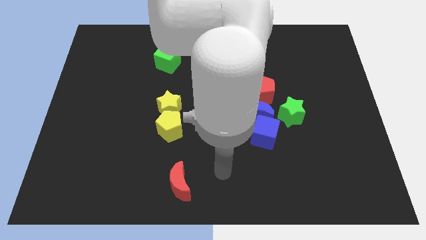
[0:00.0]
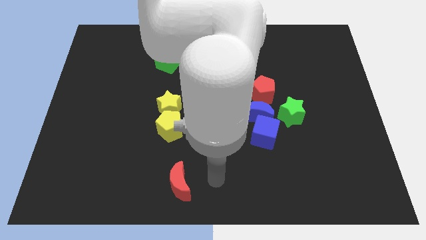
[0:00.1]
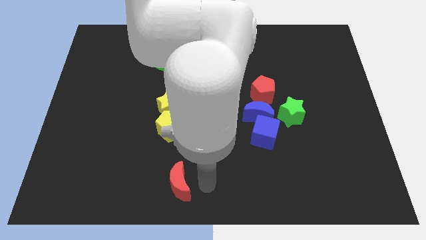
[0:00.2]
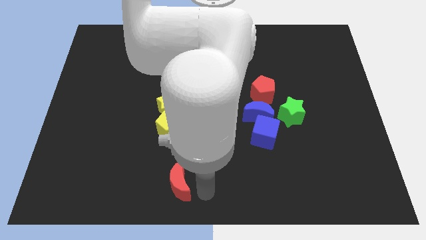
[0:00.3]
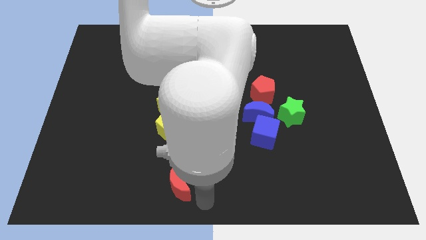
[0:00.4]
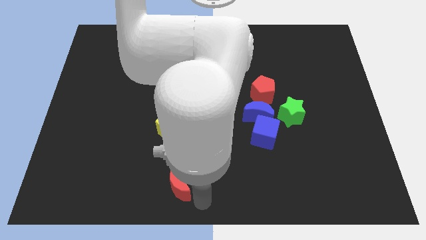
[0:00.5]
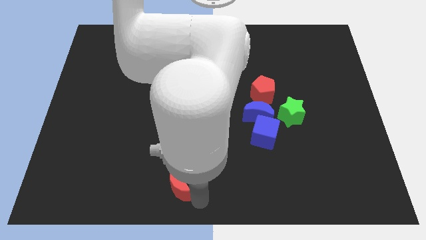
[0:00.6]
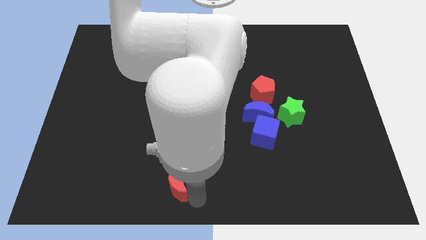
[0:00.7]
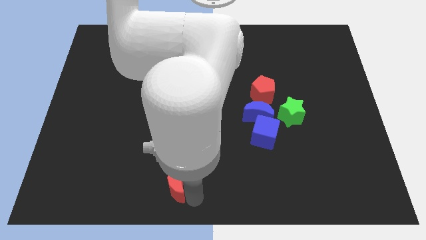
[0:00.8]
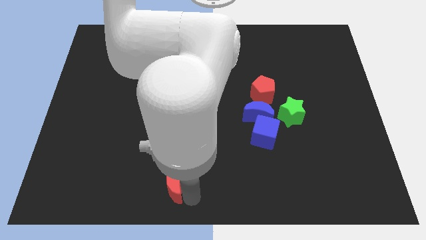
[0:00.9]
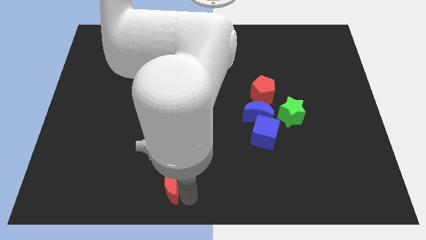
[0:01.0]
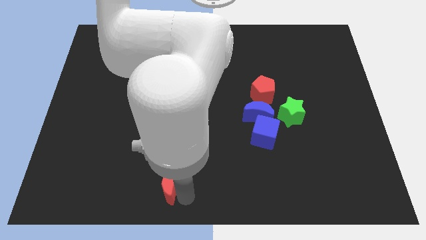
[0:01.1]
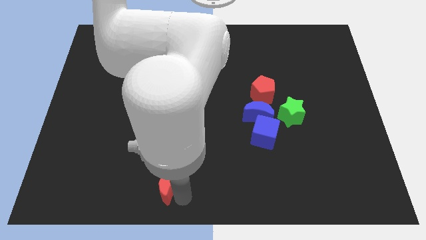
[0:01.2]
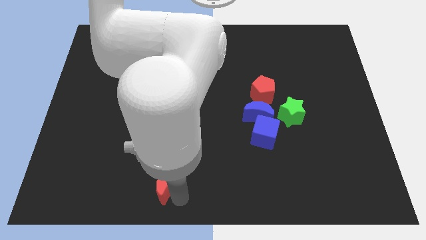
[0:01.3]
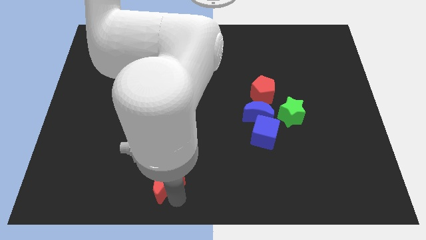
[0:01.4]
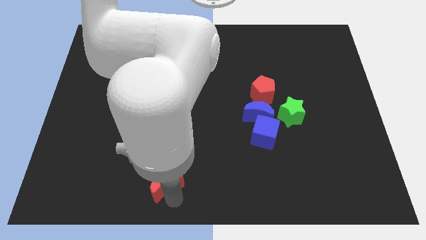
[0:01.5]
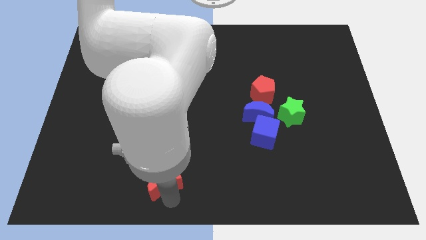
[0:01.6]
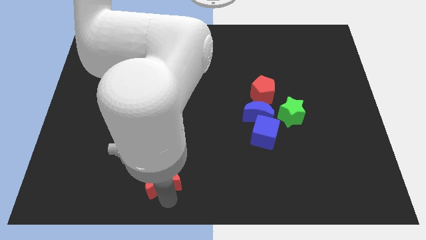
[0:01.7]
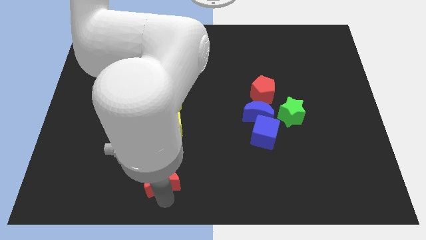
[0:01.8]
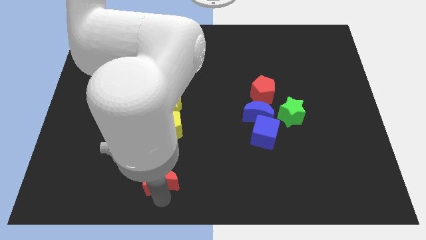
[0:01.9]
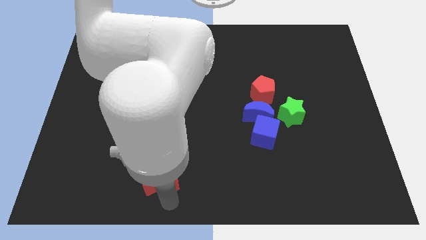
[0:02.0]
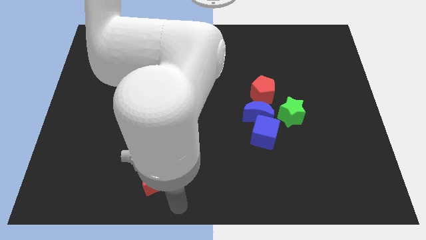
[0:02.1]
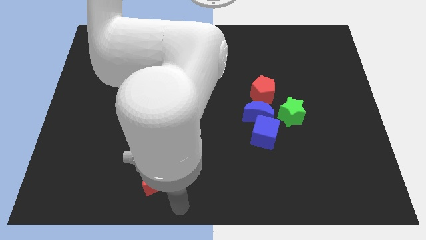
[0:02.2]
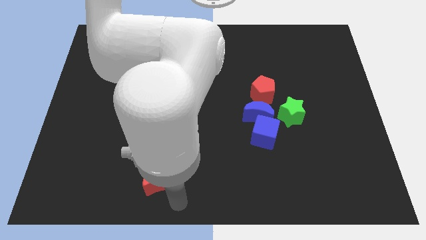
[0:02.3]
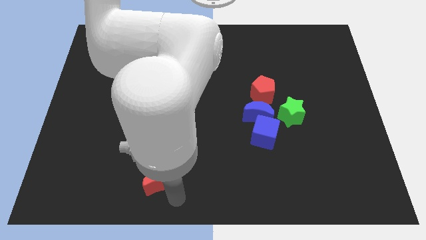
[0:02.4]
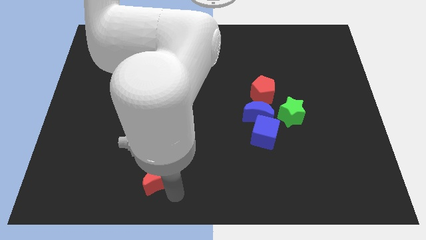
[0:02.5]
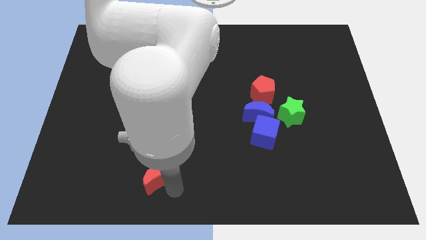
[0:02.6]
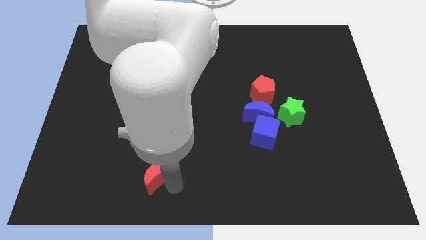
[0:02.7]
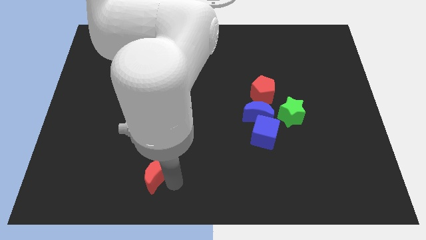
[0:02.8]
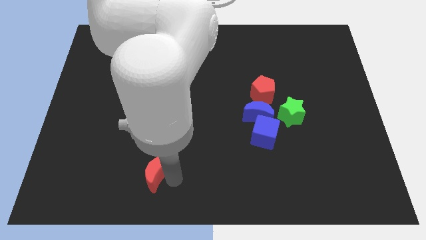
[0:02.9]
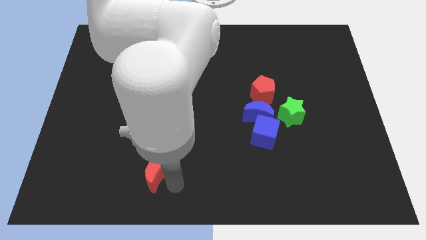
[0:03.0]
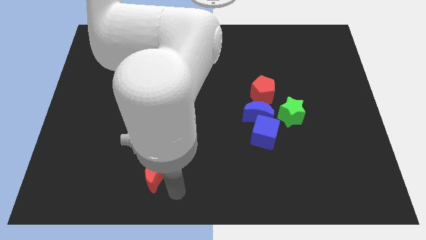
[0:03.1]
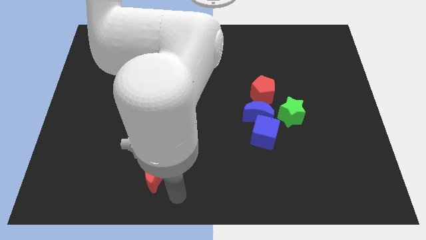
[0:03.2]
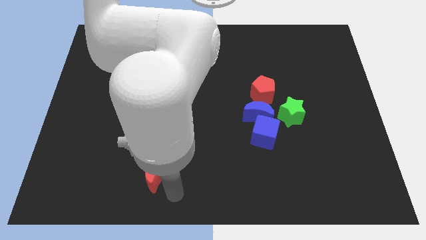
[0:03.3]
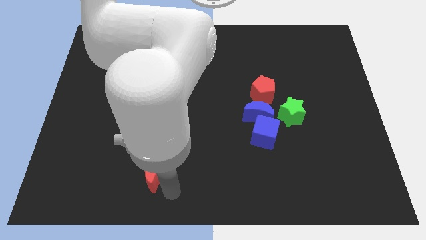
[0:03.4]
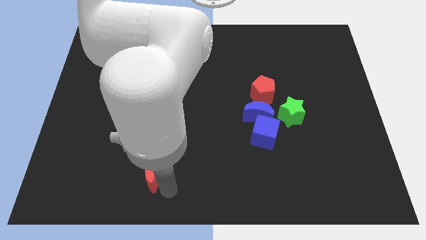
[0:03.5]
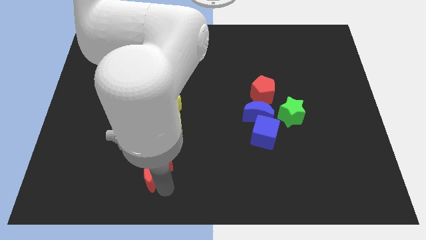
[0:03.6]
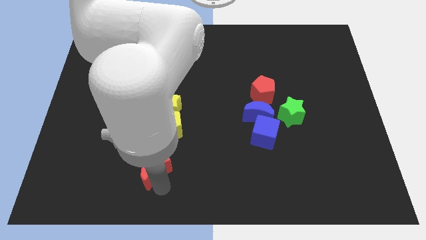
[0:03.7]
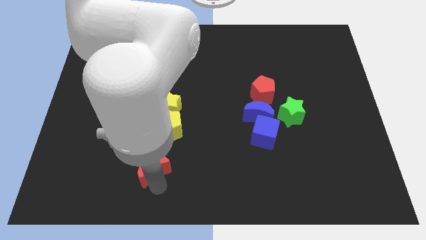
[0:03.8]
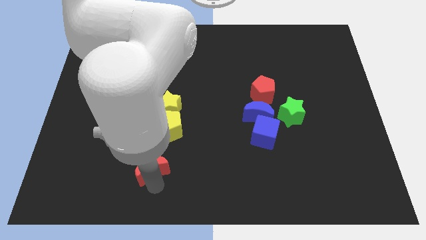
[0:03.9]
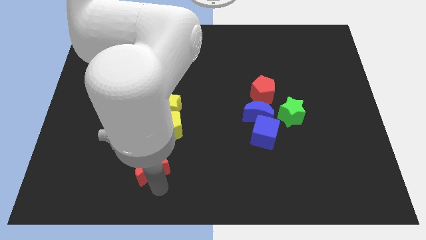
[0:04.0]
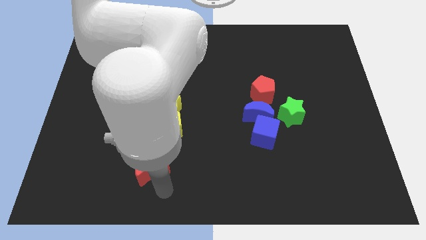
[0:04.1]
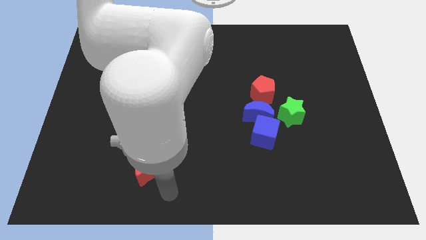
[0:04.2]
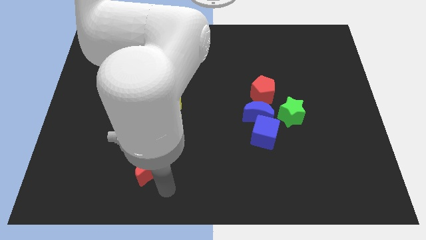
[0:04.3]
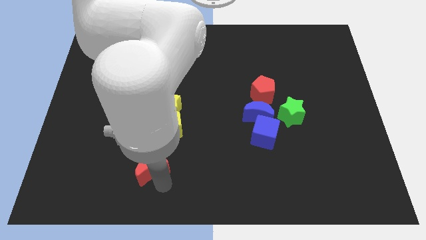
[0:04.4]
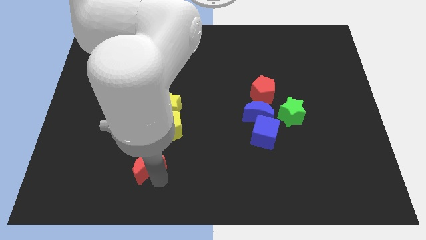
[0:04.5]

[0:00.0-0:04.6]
move the red moon diagonally upwards and left somewhat

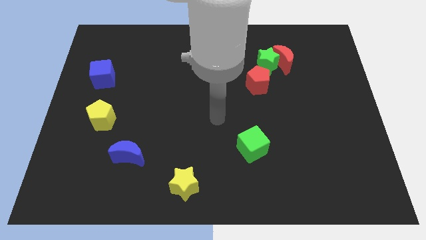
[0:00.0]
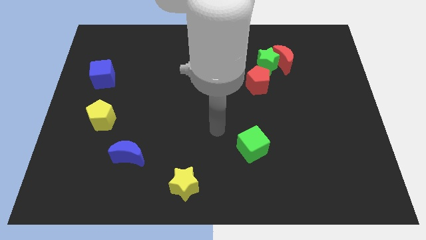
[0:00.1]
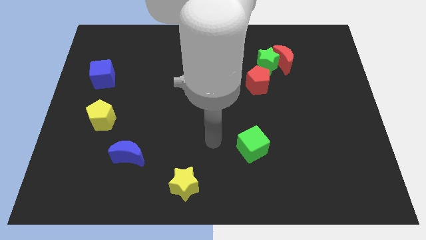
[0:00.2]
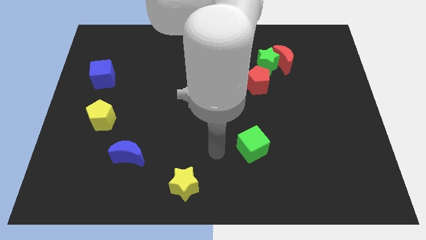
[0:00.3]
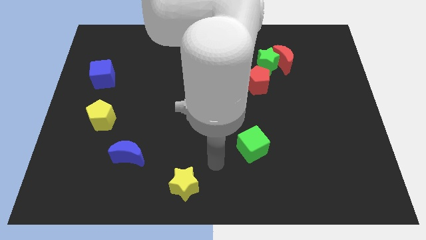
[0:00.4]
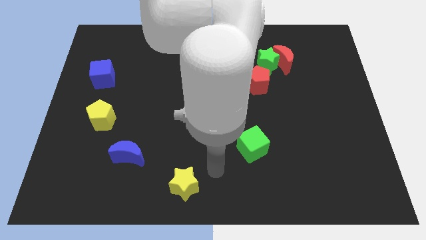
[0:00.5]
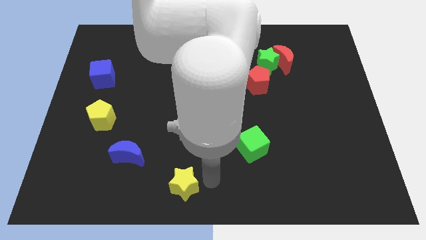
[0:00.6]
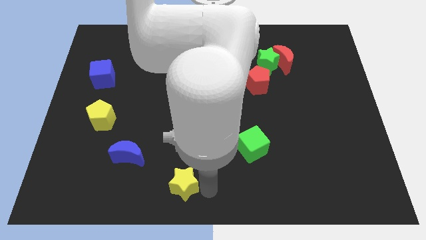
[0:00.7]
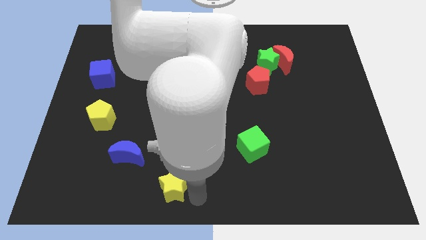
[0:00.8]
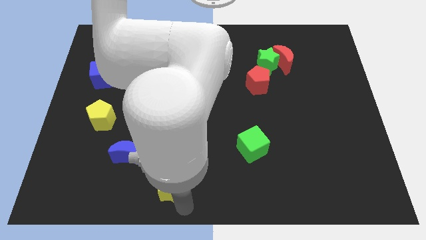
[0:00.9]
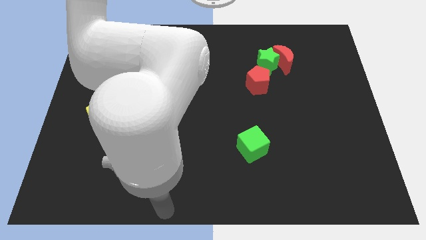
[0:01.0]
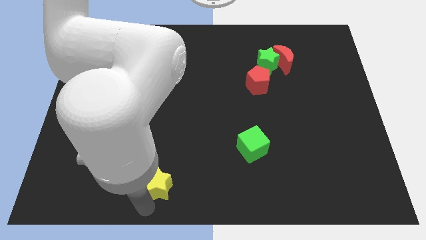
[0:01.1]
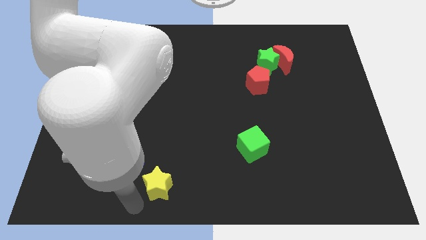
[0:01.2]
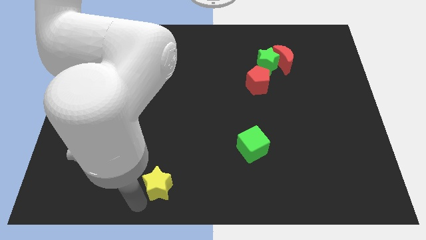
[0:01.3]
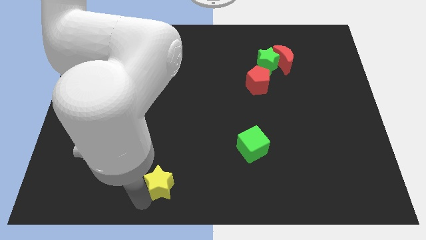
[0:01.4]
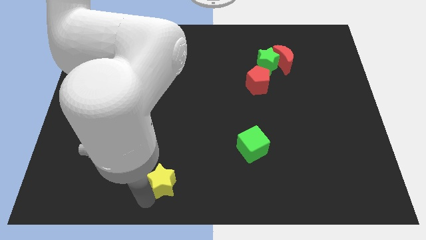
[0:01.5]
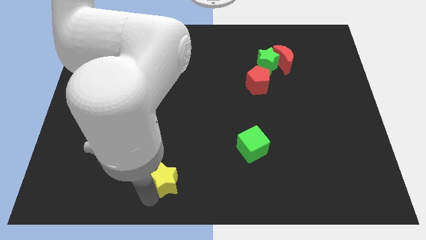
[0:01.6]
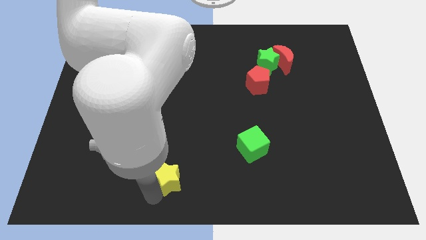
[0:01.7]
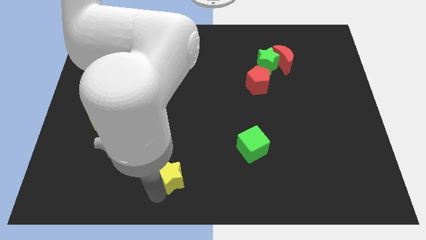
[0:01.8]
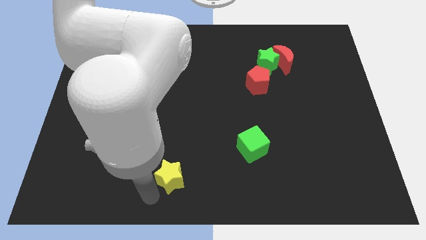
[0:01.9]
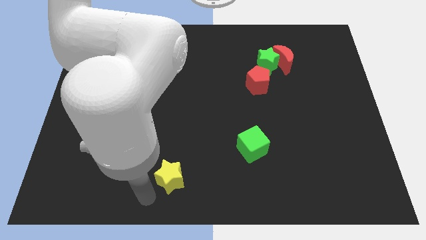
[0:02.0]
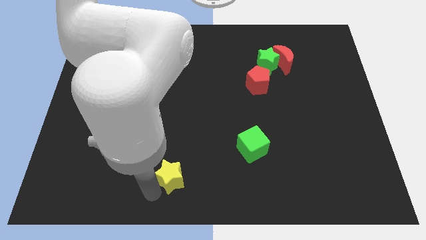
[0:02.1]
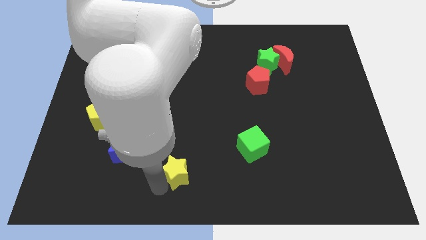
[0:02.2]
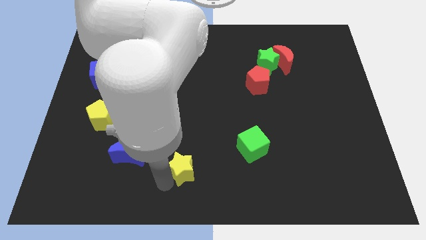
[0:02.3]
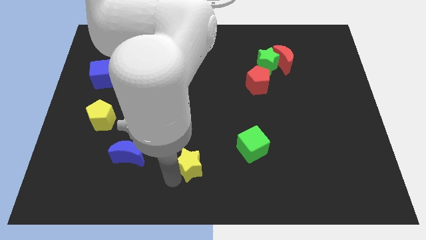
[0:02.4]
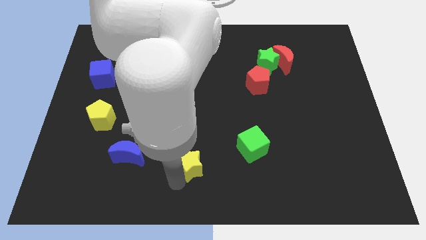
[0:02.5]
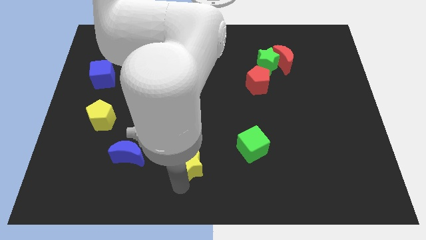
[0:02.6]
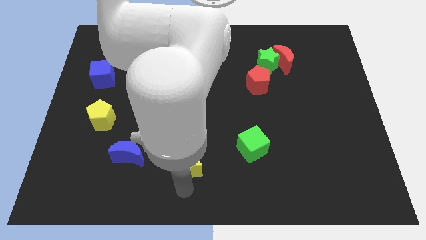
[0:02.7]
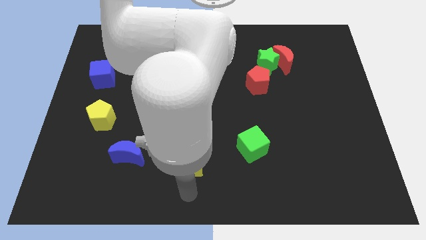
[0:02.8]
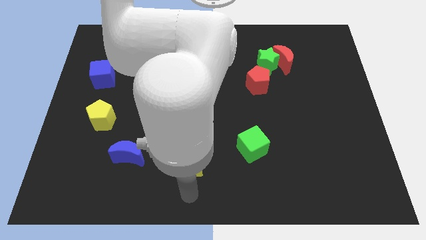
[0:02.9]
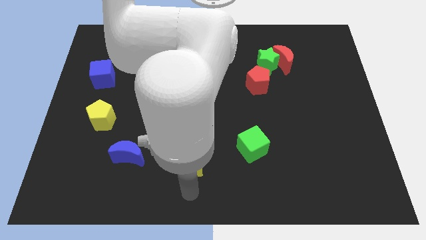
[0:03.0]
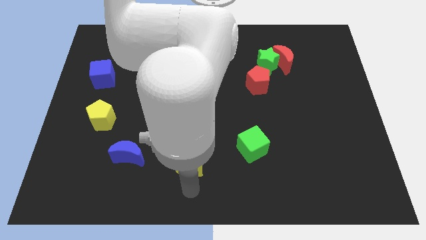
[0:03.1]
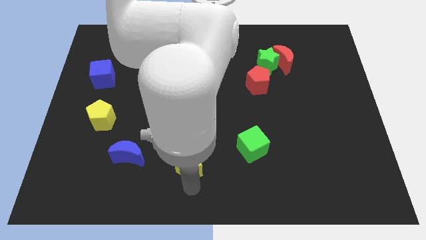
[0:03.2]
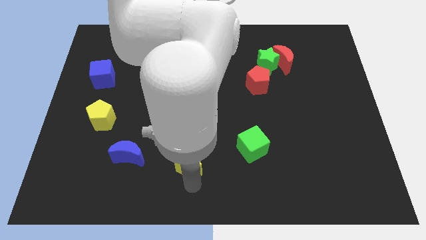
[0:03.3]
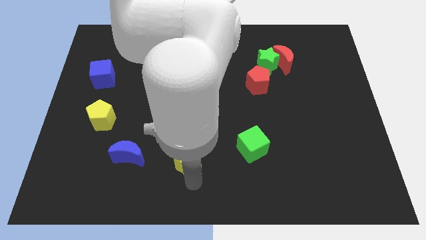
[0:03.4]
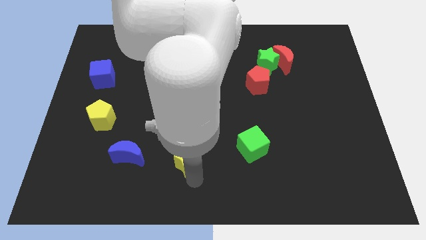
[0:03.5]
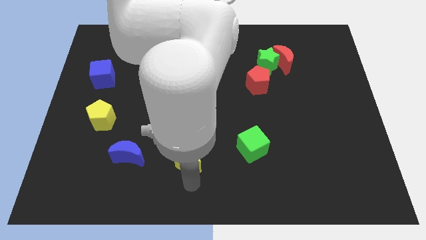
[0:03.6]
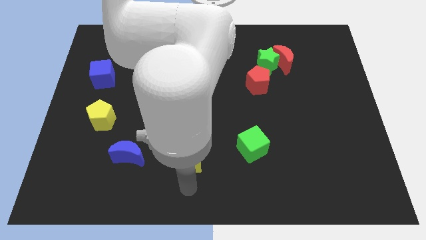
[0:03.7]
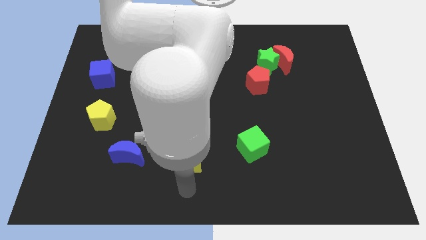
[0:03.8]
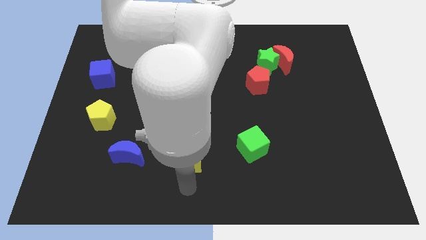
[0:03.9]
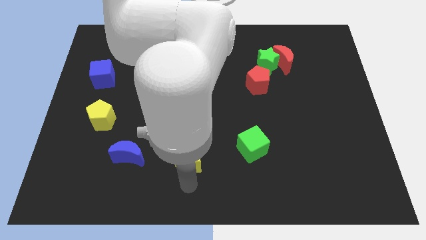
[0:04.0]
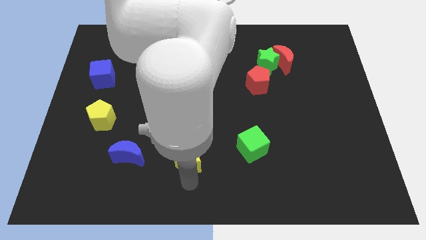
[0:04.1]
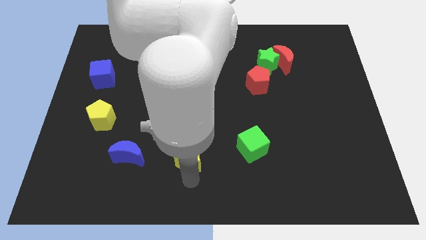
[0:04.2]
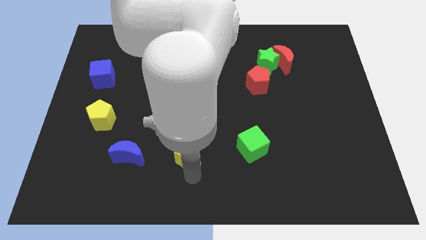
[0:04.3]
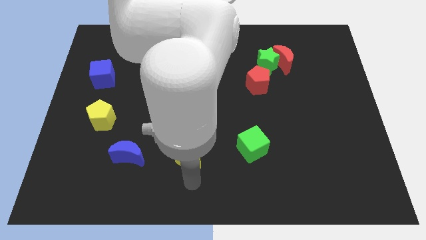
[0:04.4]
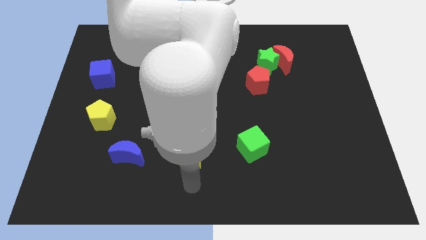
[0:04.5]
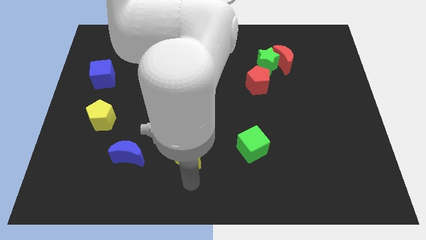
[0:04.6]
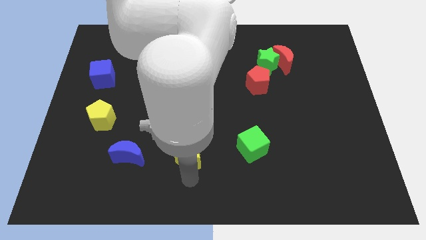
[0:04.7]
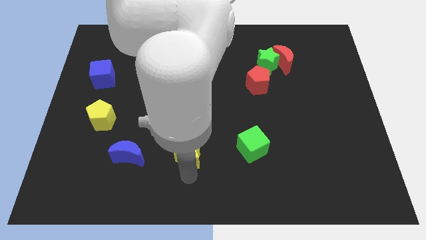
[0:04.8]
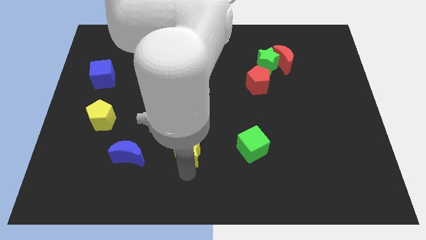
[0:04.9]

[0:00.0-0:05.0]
push the yellow star upwards somewhat
